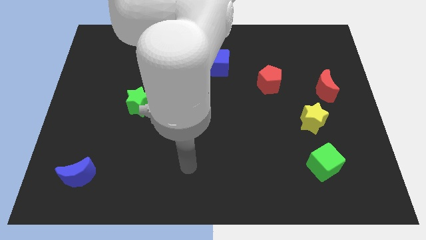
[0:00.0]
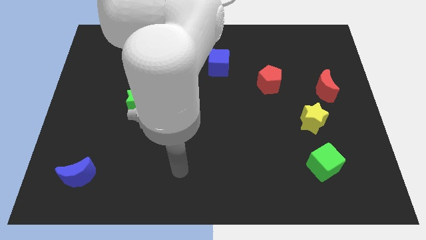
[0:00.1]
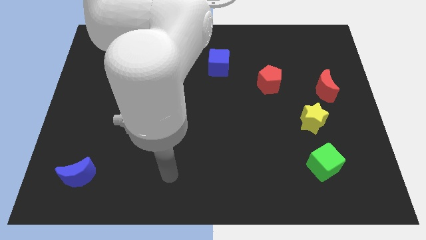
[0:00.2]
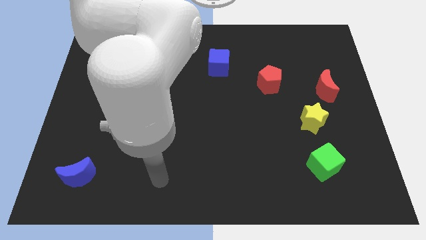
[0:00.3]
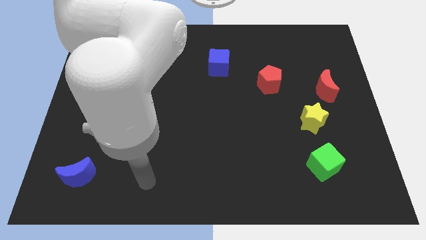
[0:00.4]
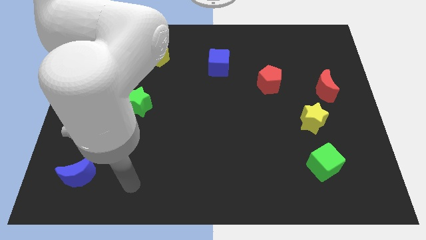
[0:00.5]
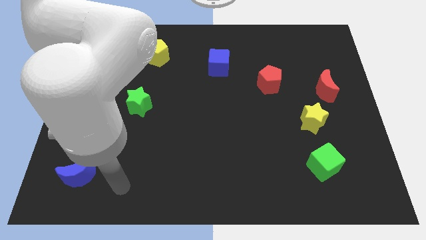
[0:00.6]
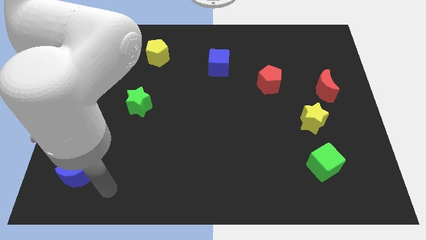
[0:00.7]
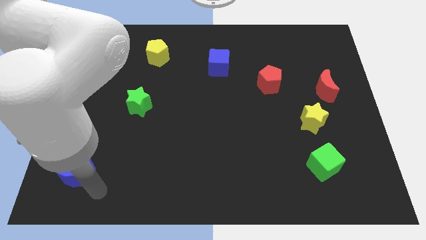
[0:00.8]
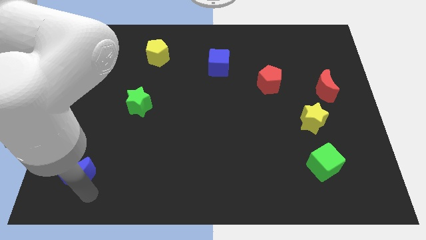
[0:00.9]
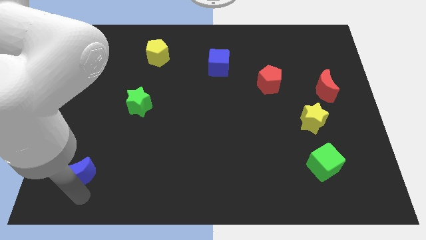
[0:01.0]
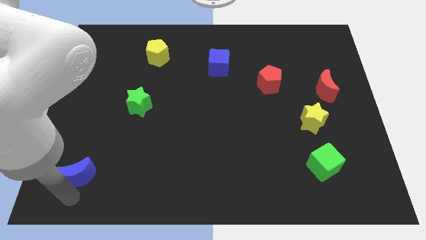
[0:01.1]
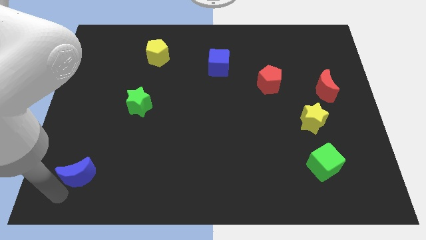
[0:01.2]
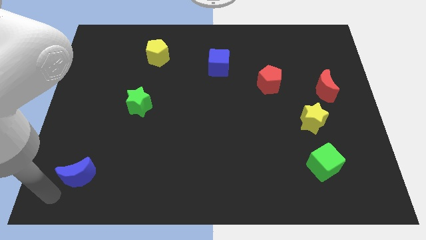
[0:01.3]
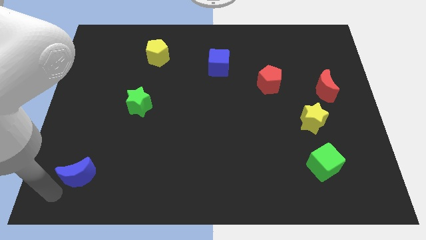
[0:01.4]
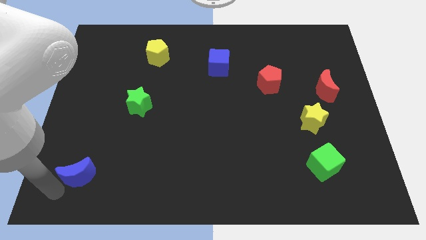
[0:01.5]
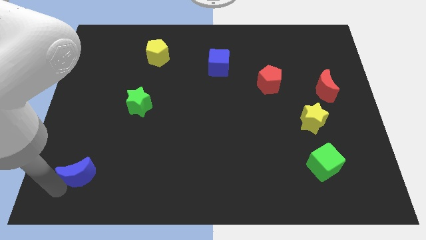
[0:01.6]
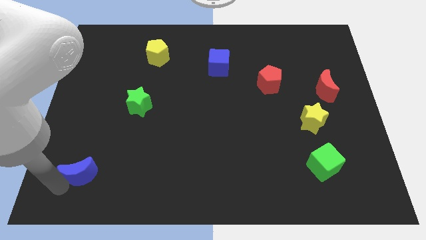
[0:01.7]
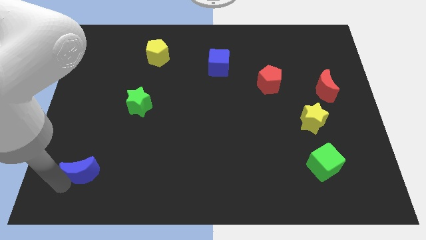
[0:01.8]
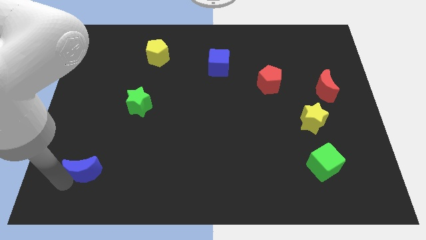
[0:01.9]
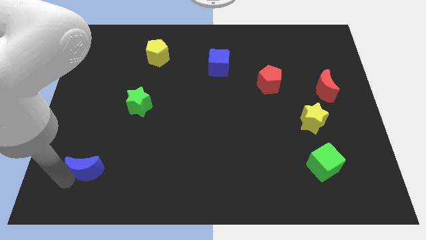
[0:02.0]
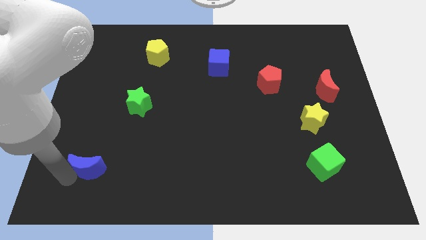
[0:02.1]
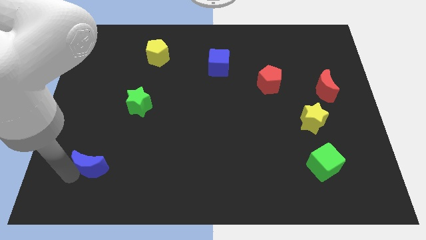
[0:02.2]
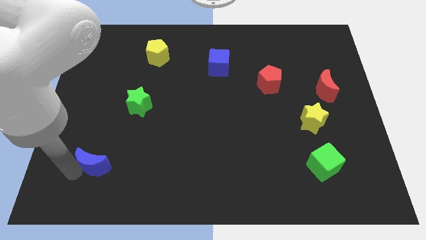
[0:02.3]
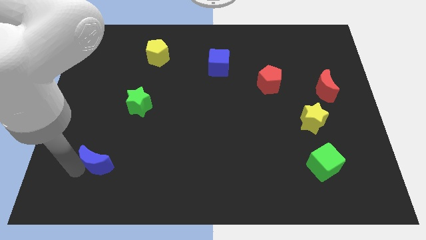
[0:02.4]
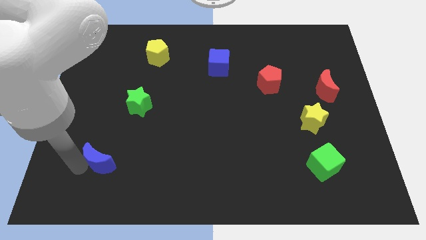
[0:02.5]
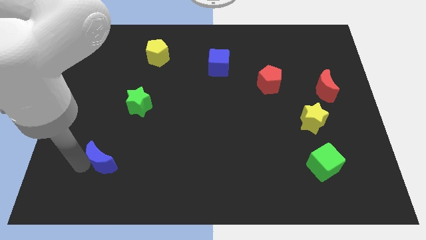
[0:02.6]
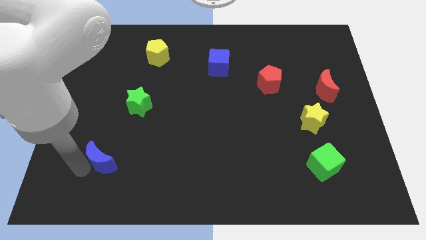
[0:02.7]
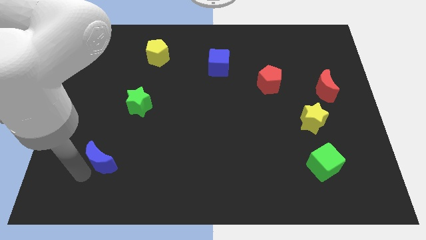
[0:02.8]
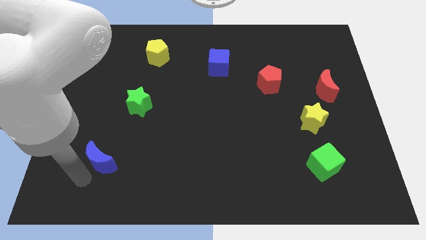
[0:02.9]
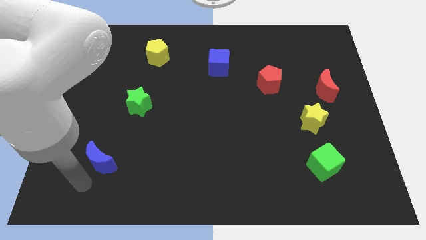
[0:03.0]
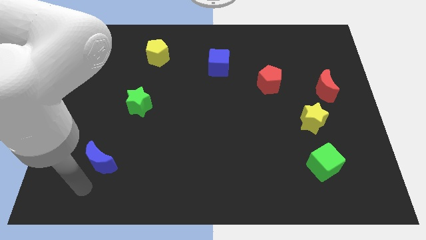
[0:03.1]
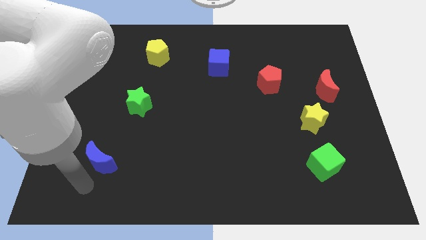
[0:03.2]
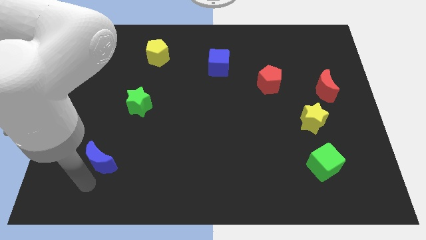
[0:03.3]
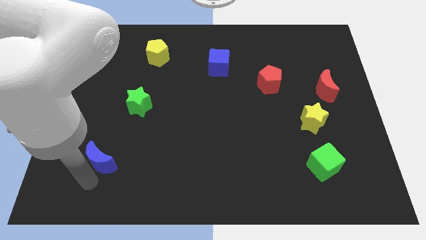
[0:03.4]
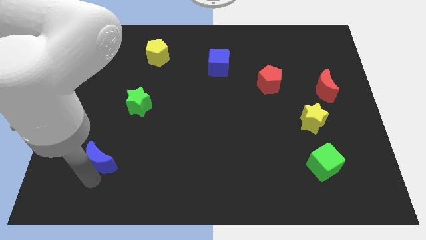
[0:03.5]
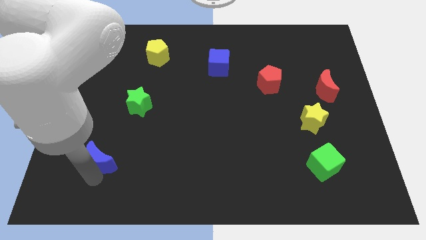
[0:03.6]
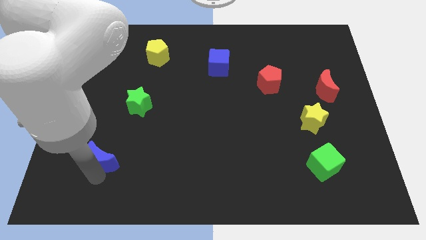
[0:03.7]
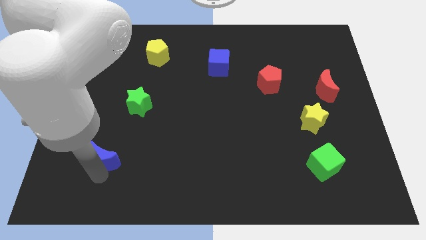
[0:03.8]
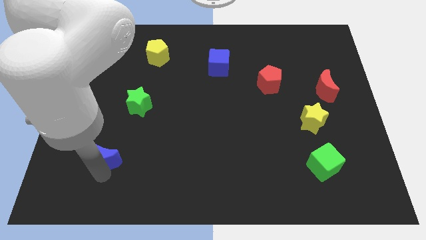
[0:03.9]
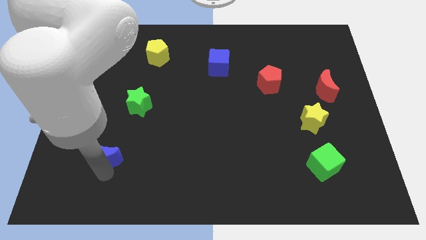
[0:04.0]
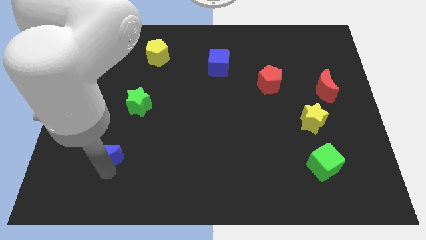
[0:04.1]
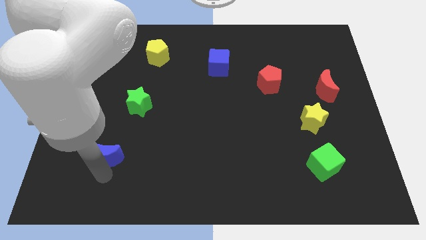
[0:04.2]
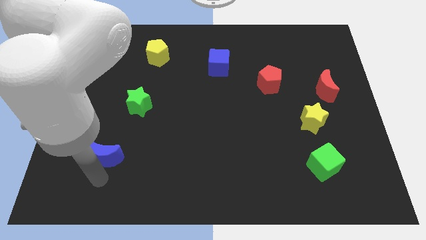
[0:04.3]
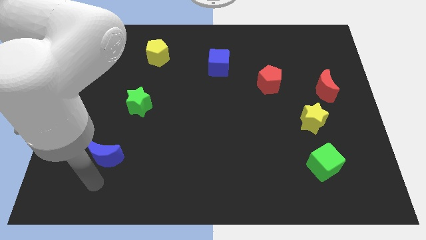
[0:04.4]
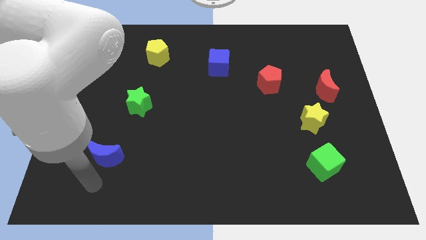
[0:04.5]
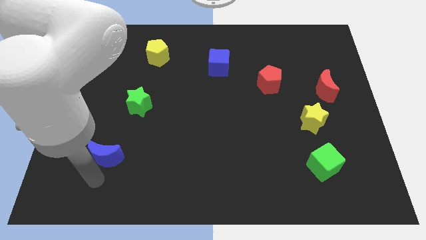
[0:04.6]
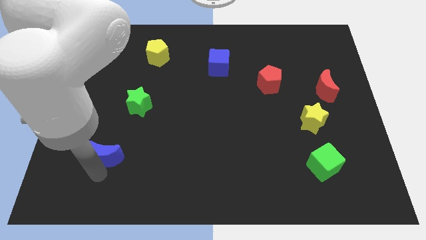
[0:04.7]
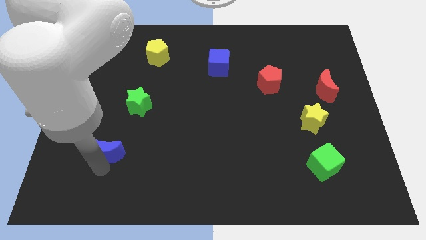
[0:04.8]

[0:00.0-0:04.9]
slide the blue moon up and then right somewhat

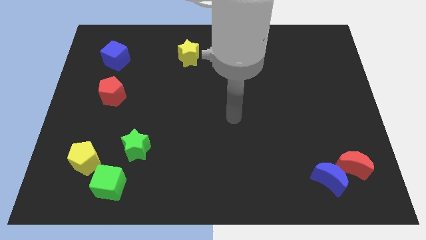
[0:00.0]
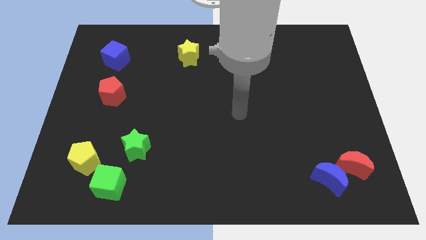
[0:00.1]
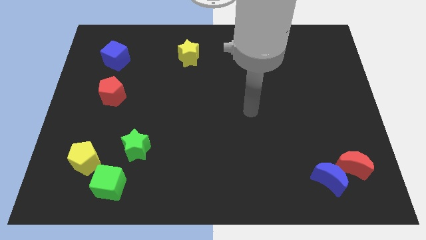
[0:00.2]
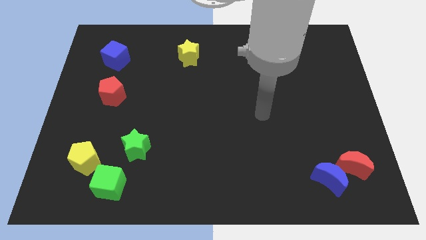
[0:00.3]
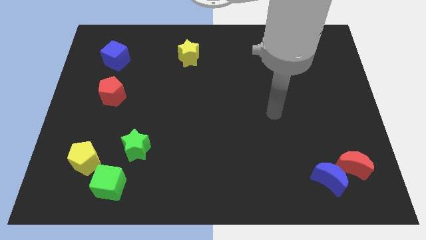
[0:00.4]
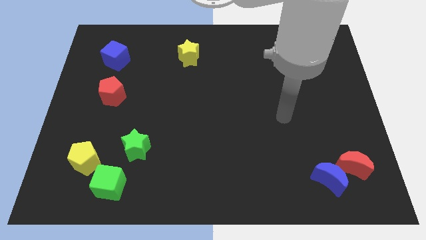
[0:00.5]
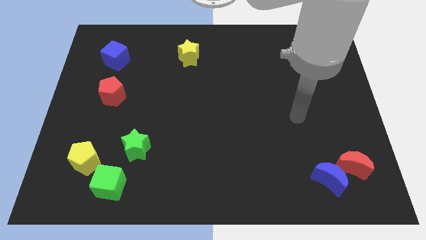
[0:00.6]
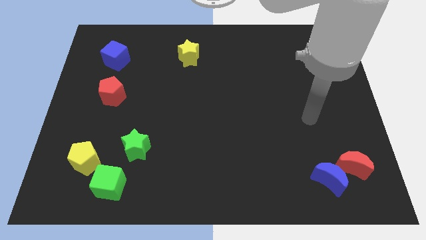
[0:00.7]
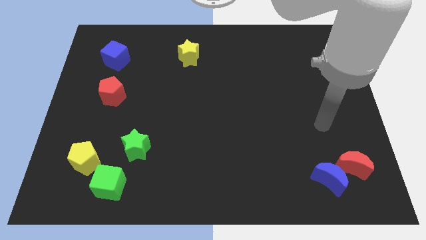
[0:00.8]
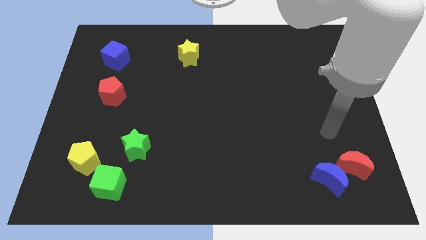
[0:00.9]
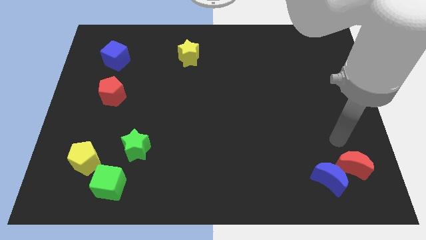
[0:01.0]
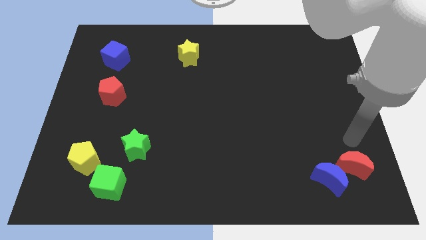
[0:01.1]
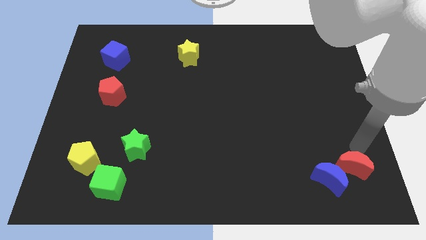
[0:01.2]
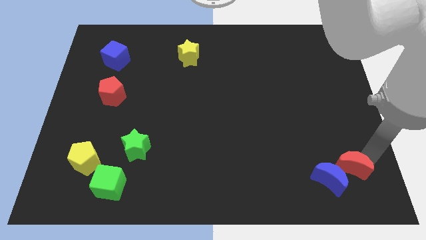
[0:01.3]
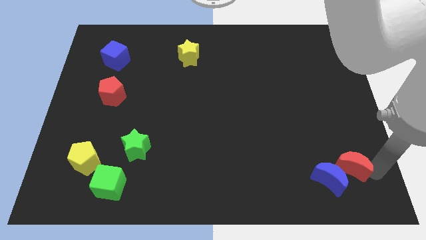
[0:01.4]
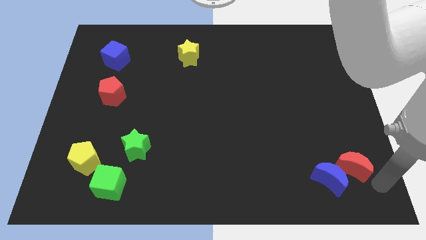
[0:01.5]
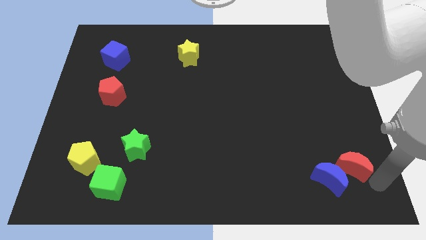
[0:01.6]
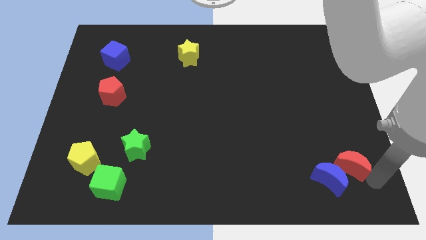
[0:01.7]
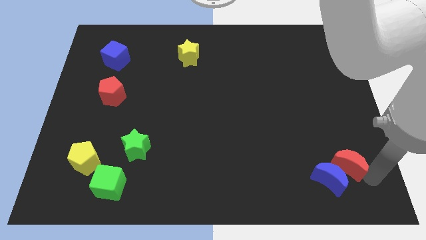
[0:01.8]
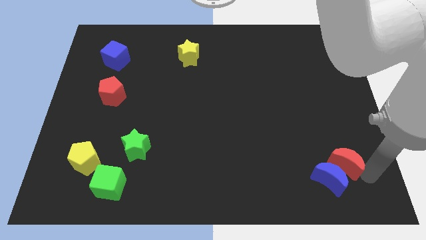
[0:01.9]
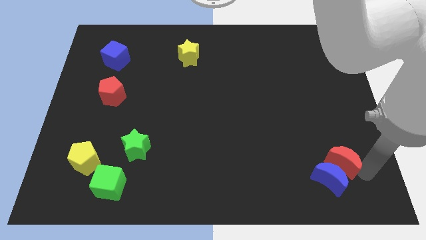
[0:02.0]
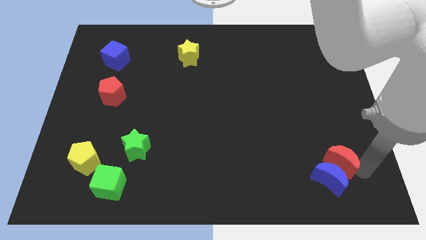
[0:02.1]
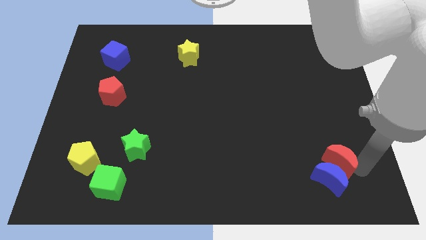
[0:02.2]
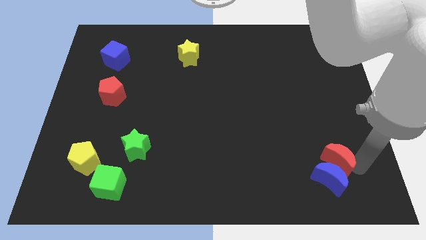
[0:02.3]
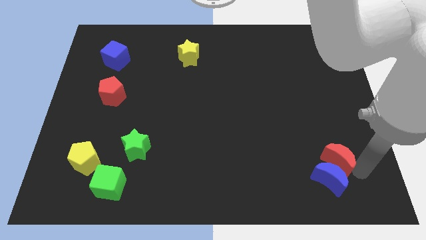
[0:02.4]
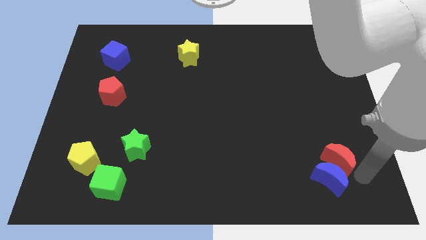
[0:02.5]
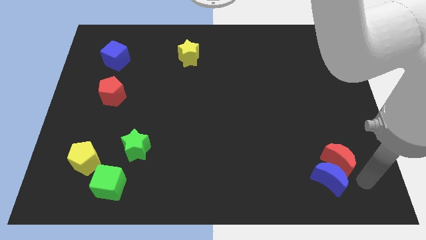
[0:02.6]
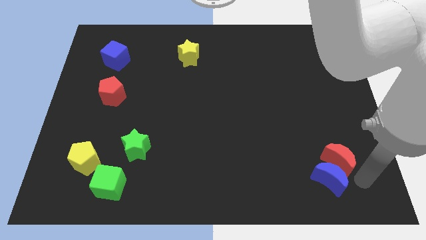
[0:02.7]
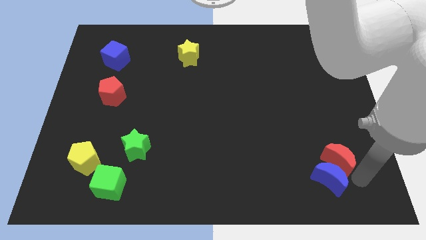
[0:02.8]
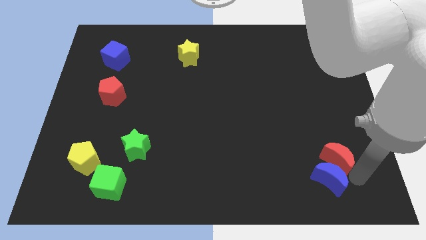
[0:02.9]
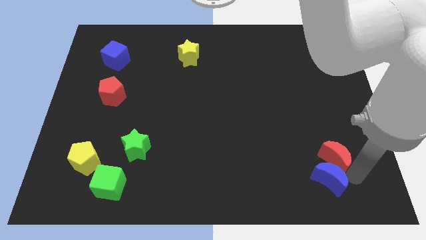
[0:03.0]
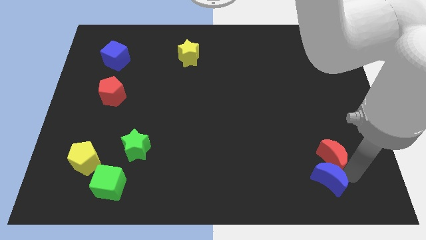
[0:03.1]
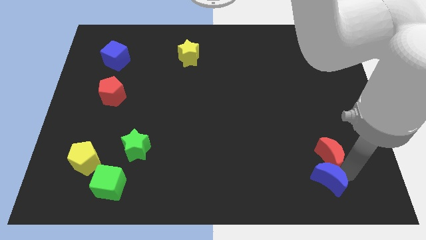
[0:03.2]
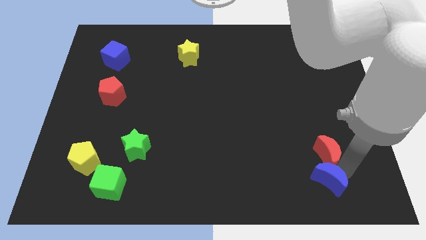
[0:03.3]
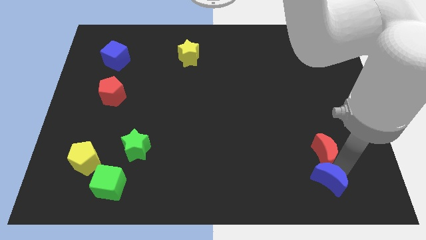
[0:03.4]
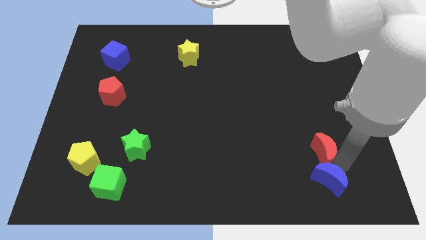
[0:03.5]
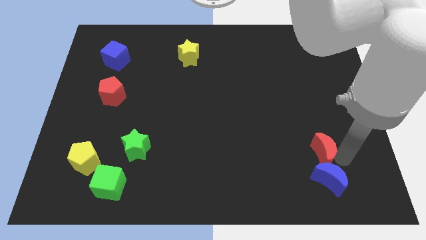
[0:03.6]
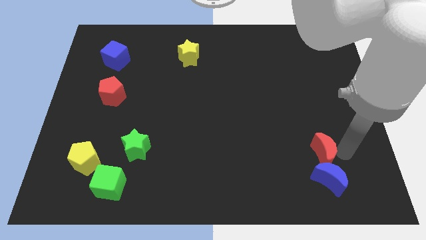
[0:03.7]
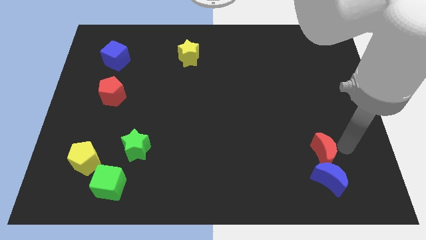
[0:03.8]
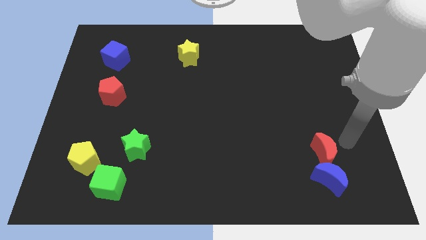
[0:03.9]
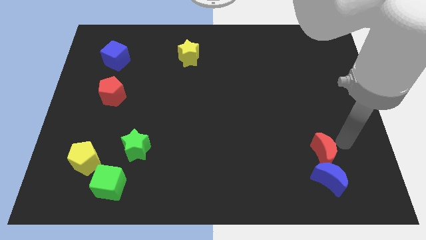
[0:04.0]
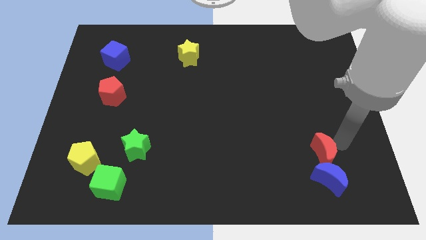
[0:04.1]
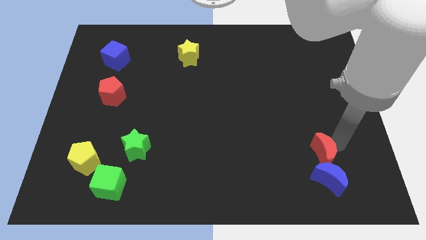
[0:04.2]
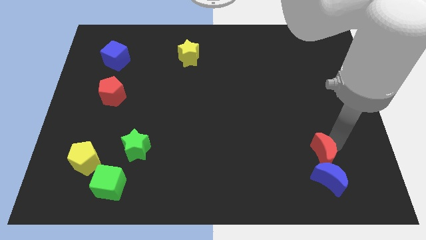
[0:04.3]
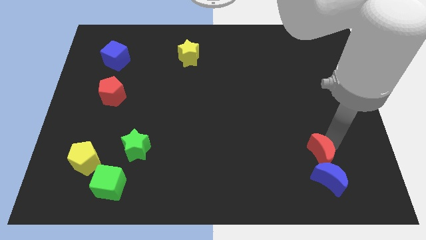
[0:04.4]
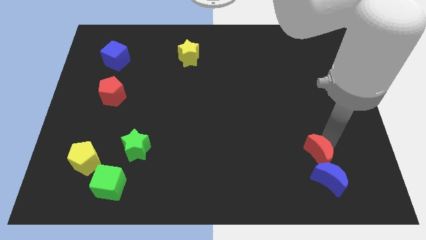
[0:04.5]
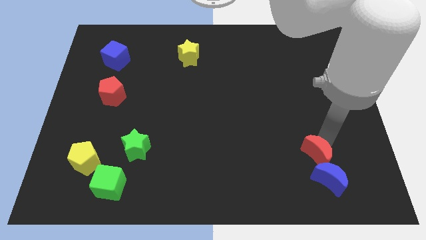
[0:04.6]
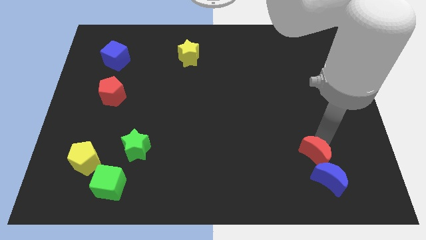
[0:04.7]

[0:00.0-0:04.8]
slide the red moon slightly left
